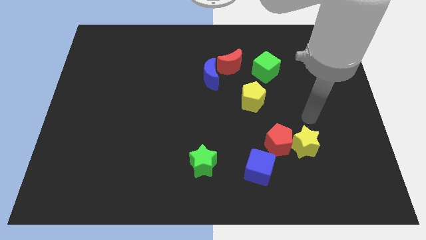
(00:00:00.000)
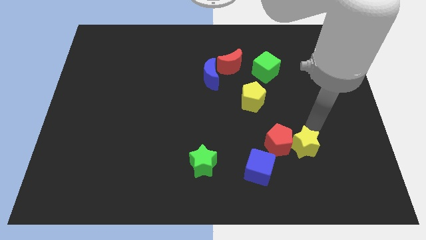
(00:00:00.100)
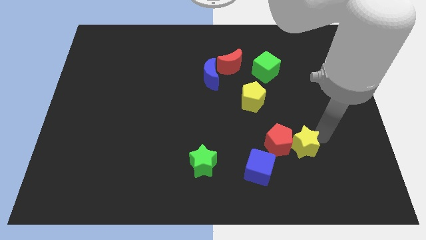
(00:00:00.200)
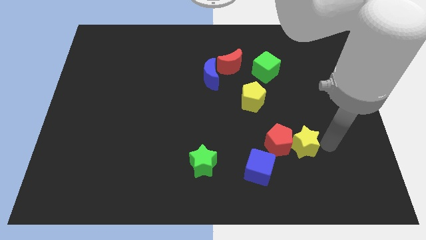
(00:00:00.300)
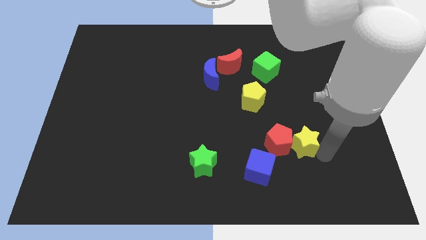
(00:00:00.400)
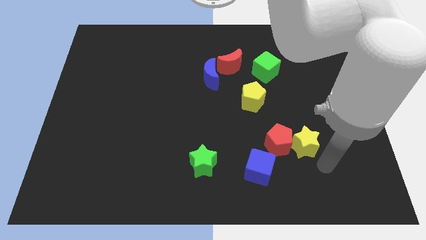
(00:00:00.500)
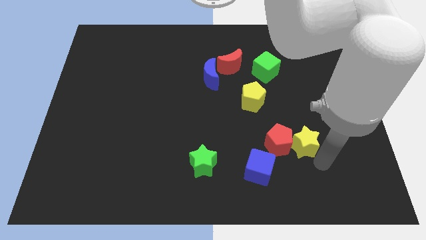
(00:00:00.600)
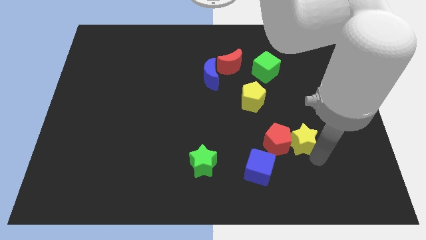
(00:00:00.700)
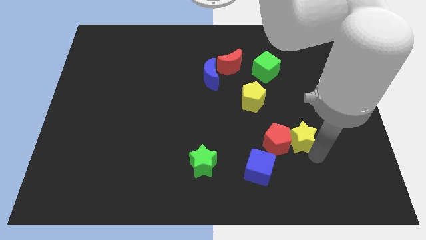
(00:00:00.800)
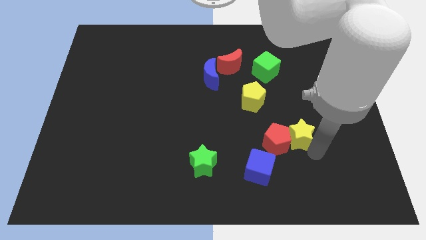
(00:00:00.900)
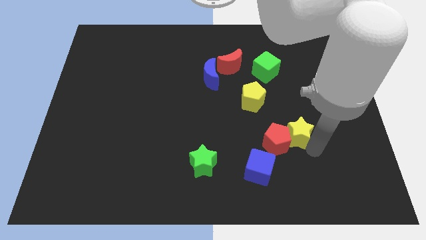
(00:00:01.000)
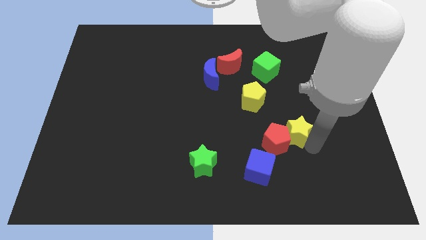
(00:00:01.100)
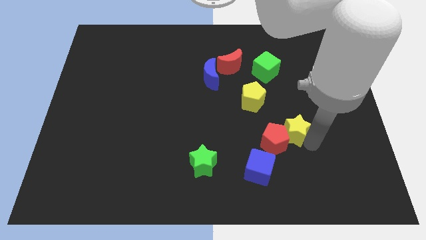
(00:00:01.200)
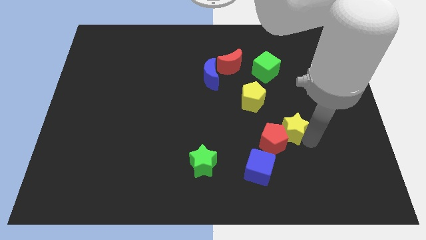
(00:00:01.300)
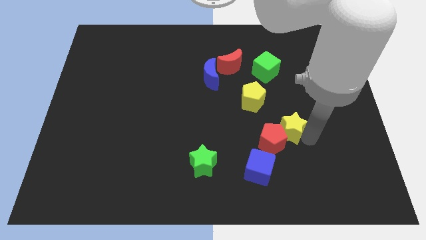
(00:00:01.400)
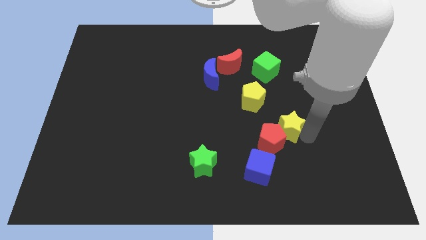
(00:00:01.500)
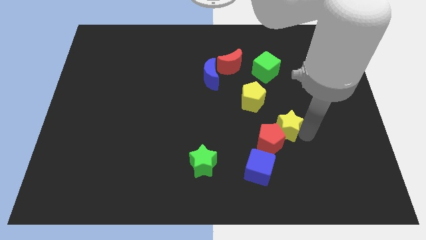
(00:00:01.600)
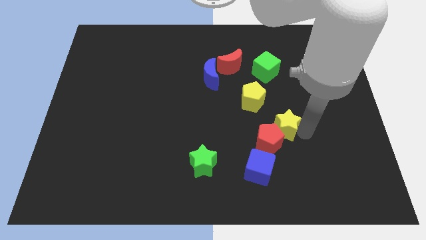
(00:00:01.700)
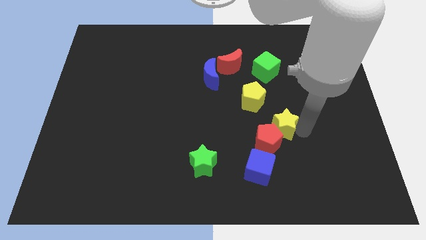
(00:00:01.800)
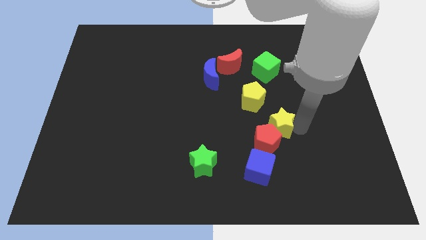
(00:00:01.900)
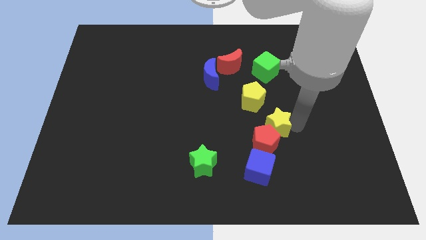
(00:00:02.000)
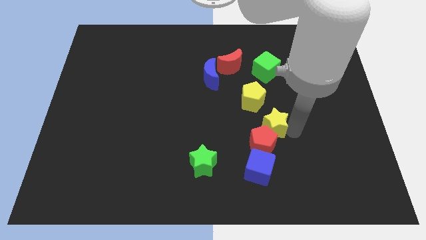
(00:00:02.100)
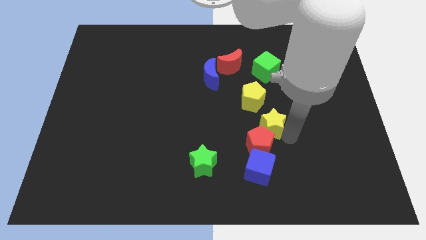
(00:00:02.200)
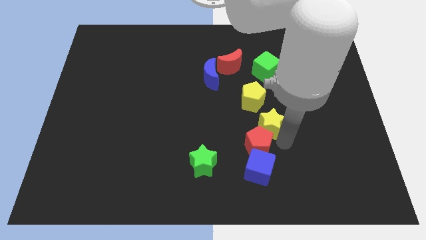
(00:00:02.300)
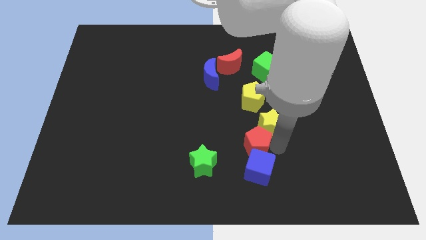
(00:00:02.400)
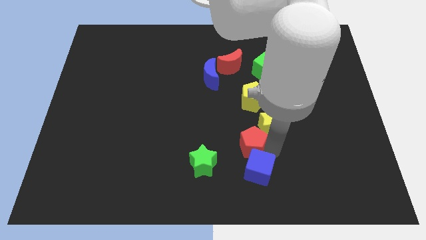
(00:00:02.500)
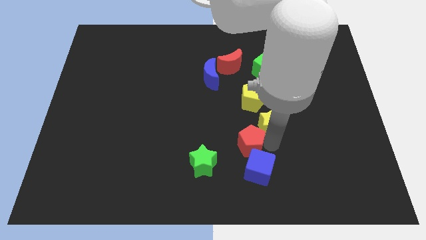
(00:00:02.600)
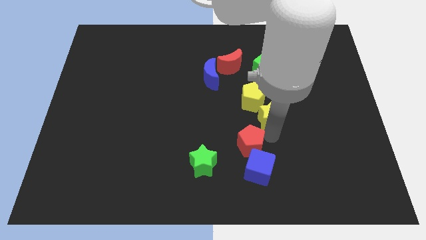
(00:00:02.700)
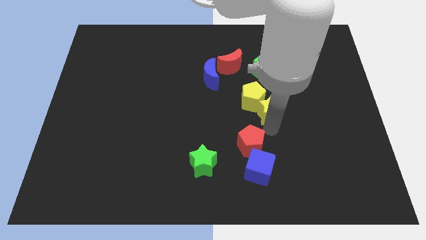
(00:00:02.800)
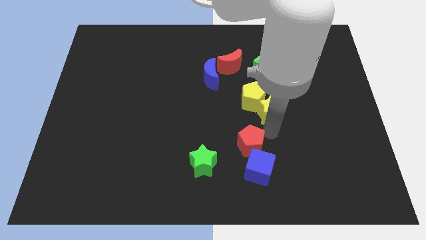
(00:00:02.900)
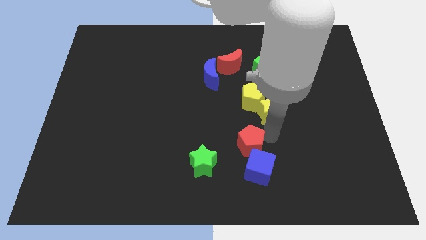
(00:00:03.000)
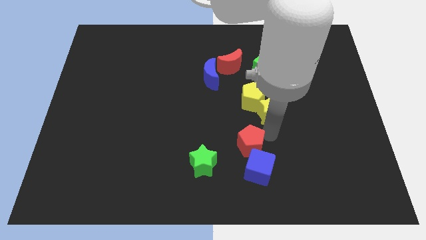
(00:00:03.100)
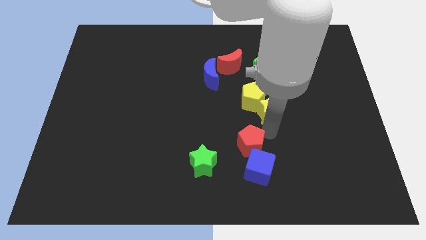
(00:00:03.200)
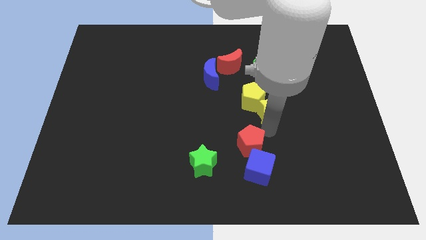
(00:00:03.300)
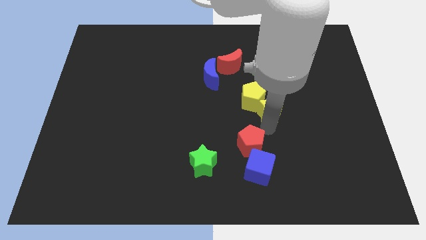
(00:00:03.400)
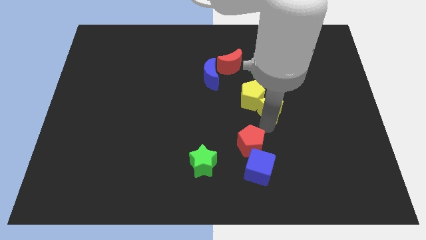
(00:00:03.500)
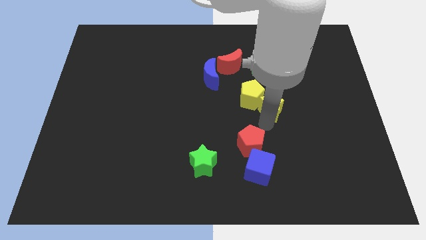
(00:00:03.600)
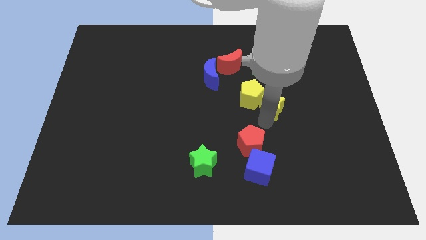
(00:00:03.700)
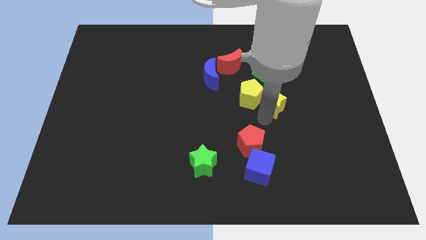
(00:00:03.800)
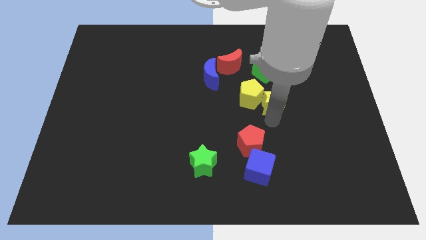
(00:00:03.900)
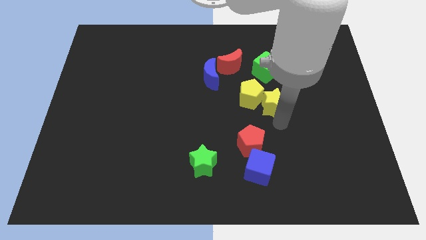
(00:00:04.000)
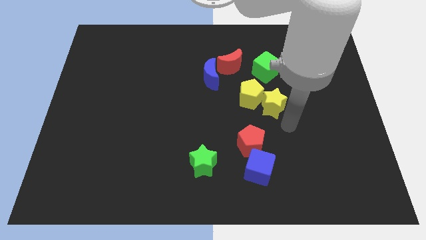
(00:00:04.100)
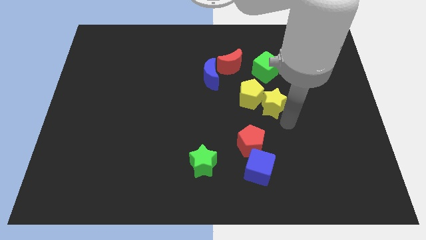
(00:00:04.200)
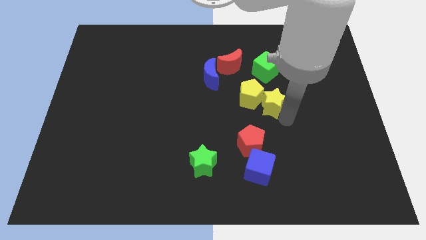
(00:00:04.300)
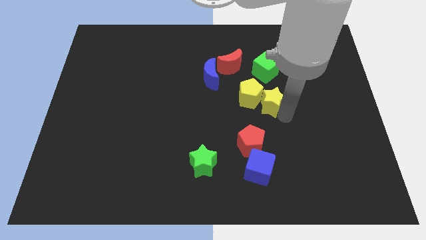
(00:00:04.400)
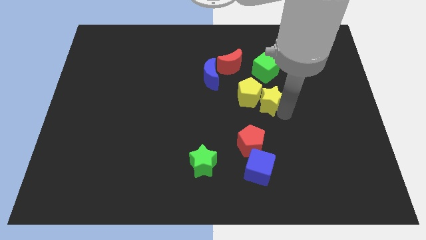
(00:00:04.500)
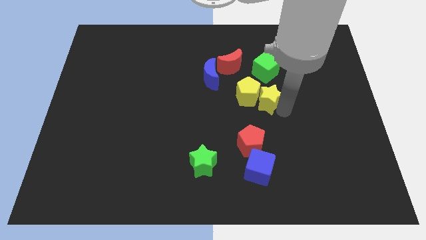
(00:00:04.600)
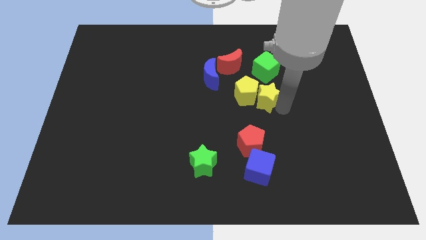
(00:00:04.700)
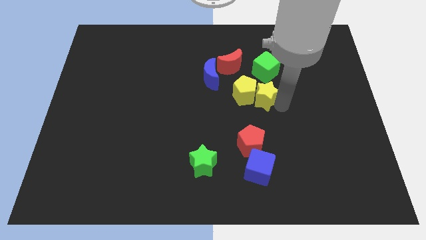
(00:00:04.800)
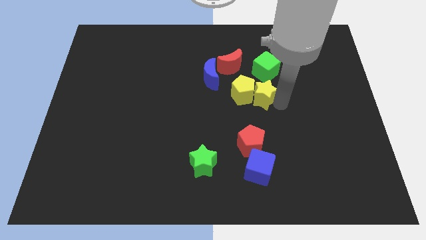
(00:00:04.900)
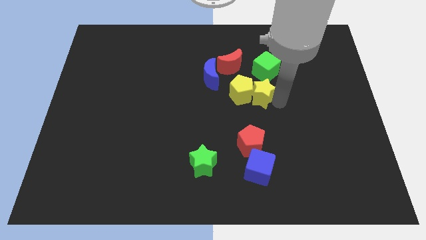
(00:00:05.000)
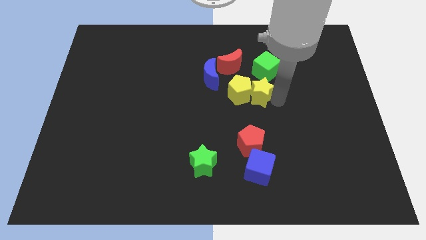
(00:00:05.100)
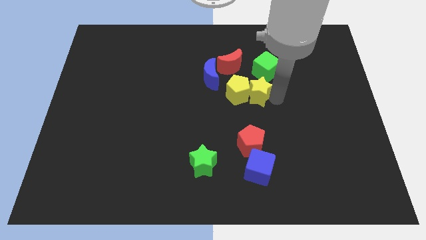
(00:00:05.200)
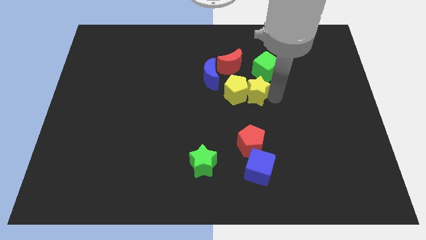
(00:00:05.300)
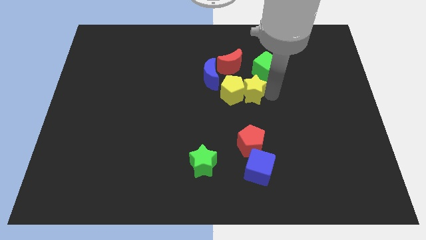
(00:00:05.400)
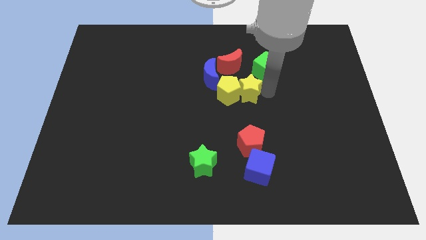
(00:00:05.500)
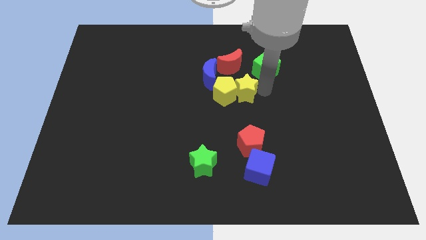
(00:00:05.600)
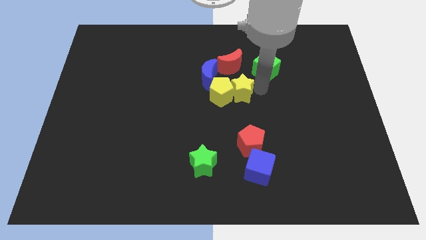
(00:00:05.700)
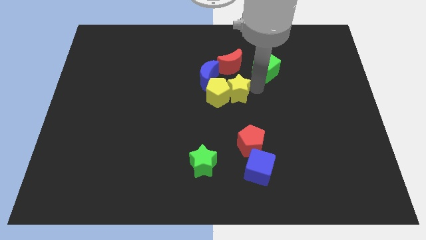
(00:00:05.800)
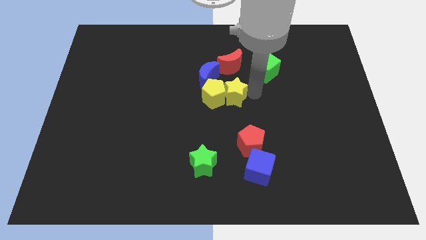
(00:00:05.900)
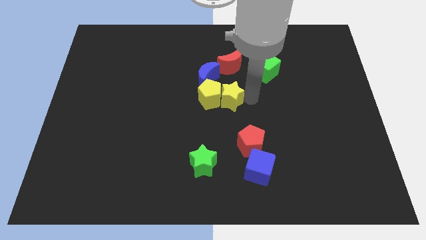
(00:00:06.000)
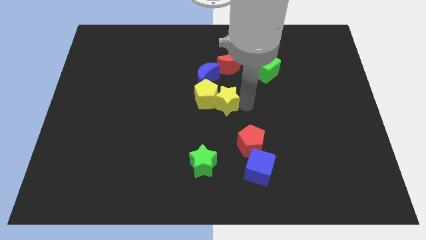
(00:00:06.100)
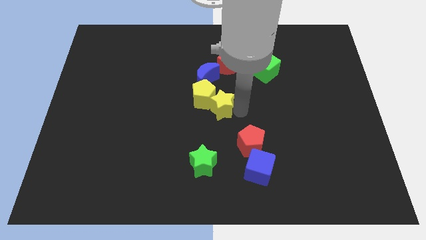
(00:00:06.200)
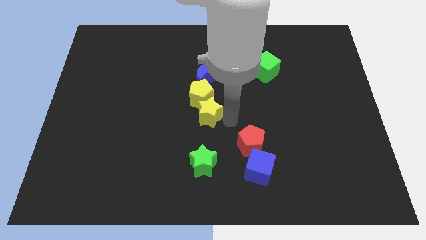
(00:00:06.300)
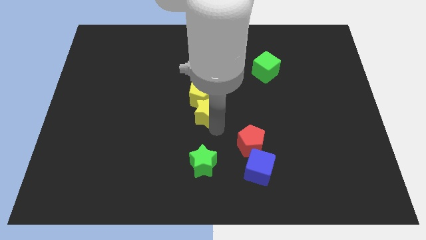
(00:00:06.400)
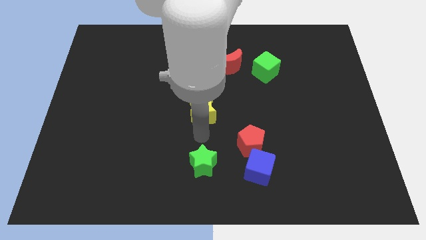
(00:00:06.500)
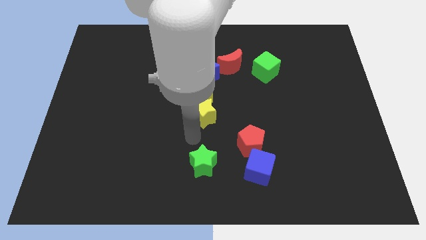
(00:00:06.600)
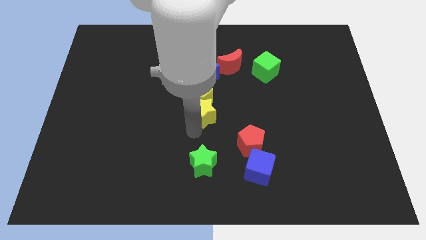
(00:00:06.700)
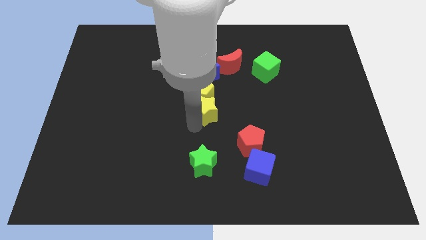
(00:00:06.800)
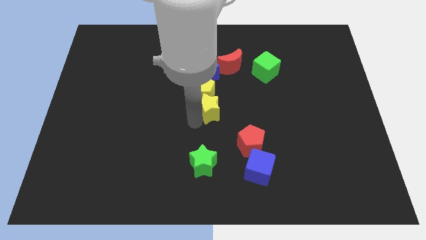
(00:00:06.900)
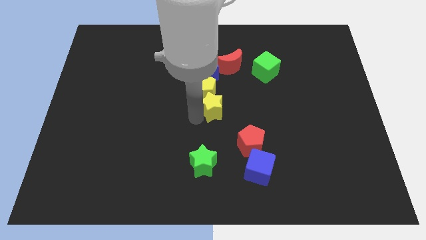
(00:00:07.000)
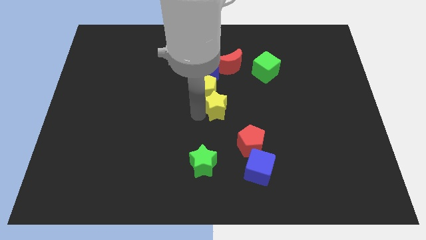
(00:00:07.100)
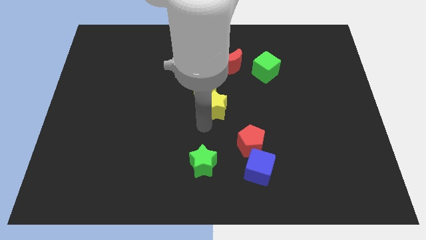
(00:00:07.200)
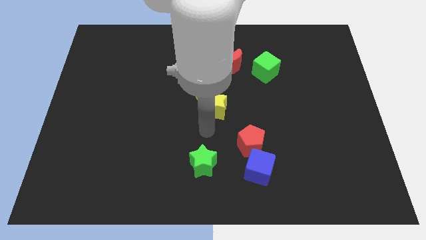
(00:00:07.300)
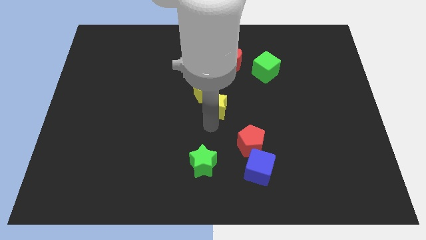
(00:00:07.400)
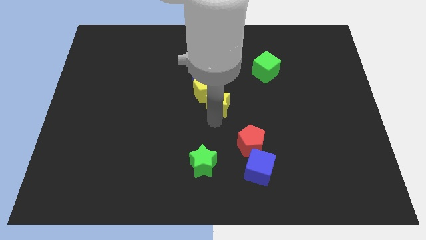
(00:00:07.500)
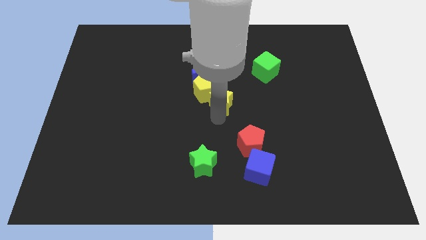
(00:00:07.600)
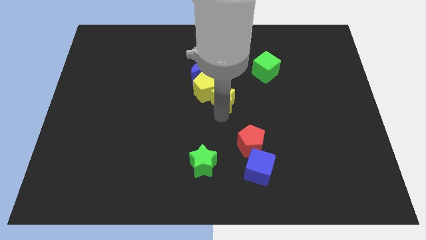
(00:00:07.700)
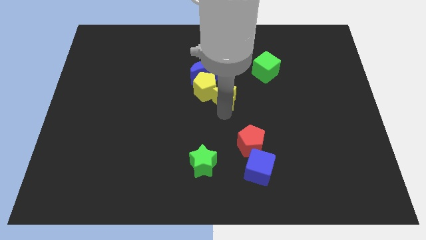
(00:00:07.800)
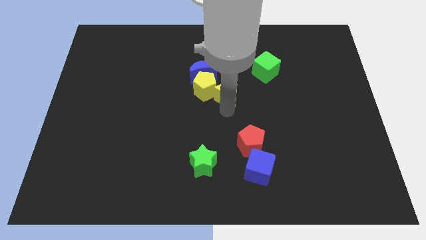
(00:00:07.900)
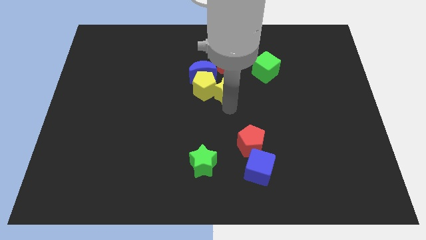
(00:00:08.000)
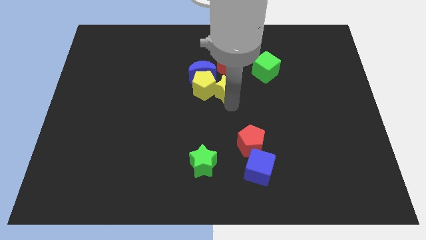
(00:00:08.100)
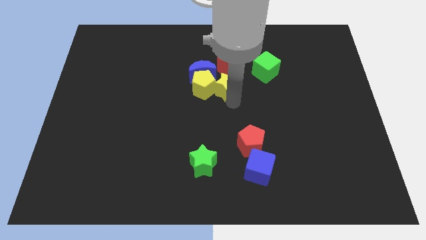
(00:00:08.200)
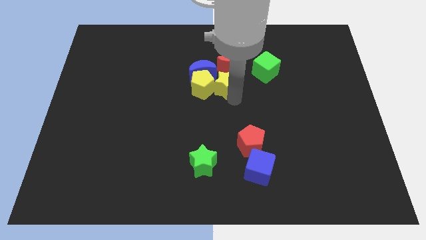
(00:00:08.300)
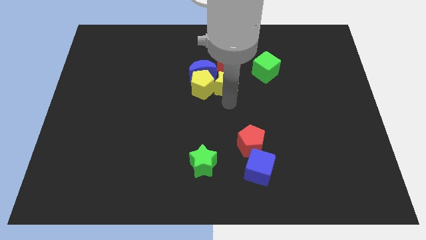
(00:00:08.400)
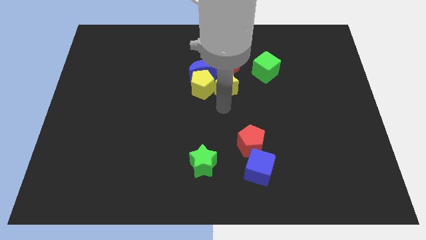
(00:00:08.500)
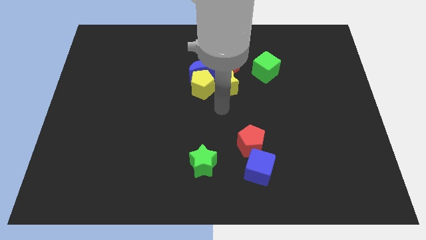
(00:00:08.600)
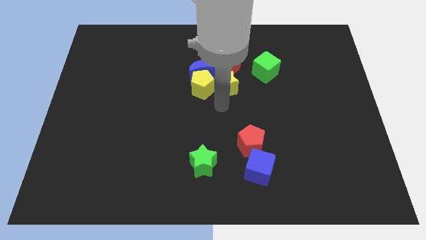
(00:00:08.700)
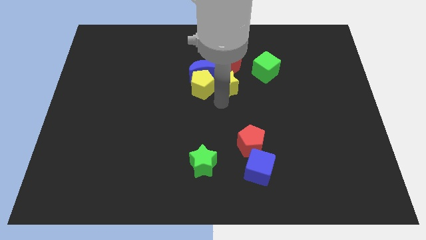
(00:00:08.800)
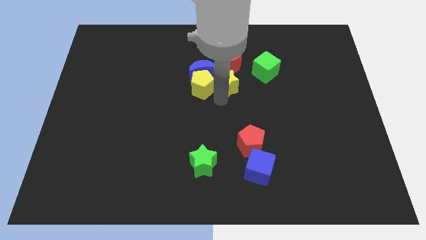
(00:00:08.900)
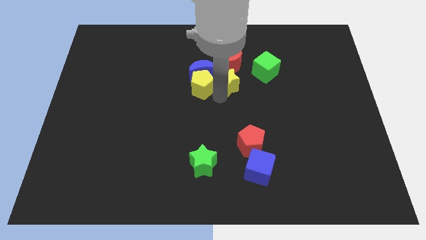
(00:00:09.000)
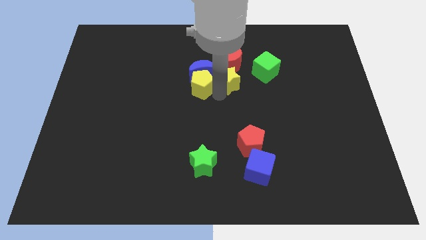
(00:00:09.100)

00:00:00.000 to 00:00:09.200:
slide the yellow star towards the red moon
